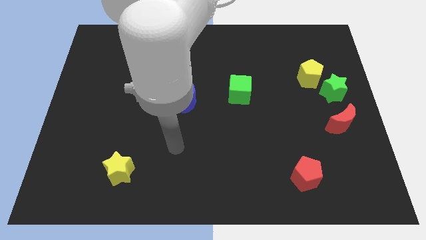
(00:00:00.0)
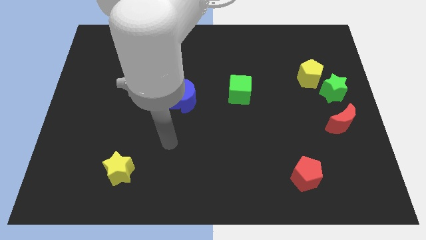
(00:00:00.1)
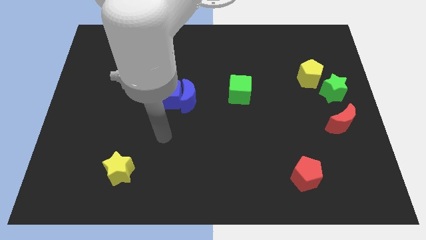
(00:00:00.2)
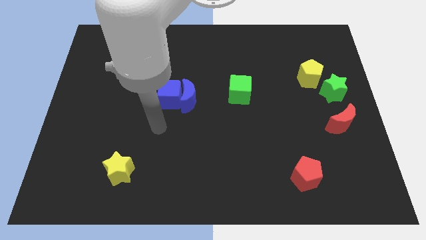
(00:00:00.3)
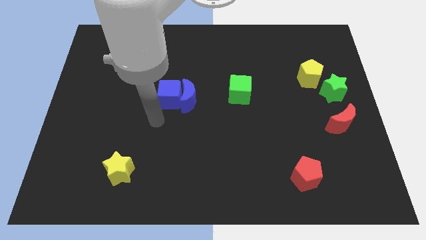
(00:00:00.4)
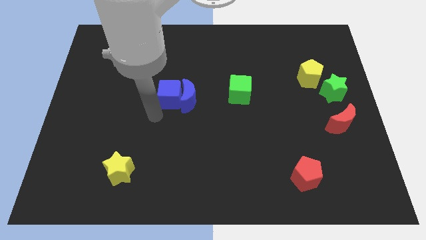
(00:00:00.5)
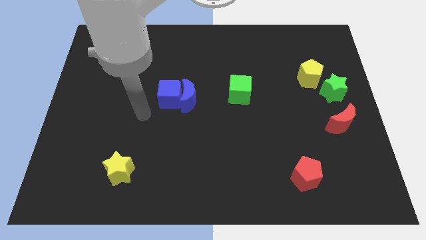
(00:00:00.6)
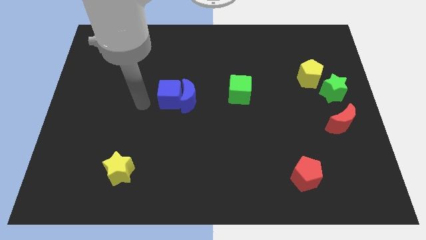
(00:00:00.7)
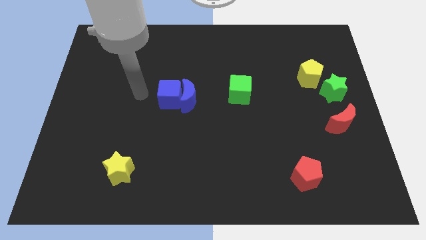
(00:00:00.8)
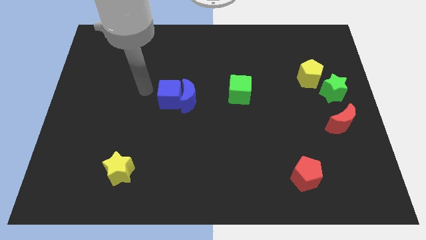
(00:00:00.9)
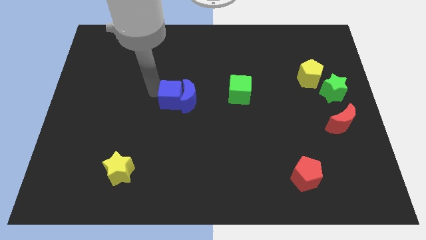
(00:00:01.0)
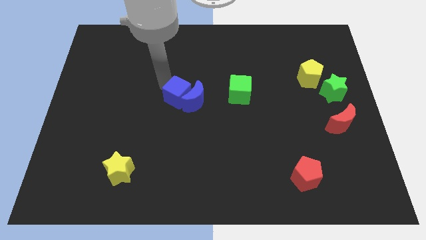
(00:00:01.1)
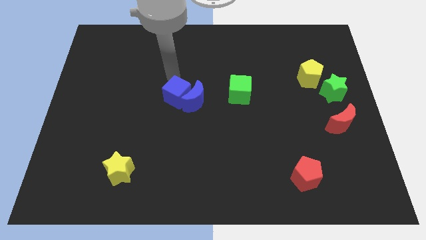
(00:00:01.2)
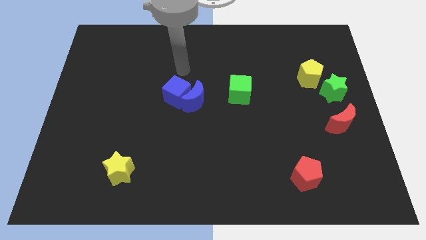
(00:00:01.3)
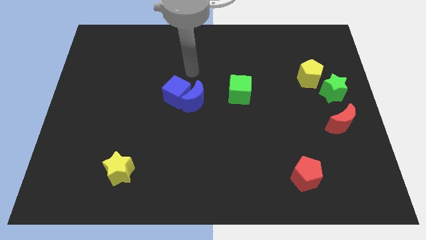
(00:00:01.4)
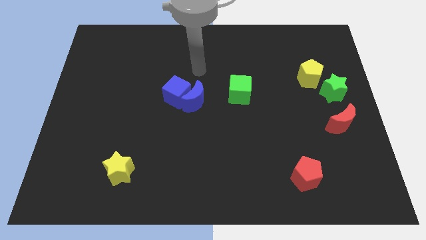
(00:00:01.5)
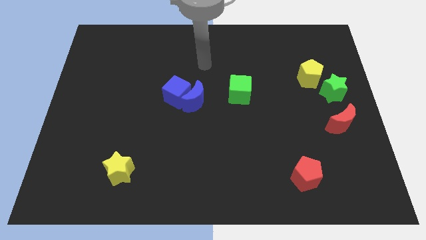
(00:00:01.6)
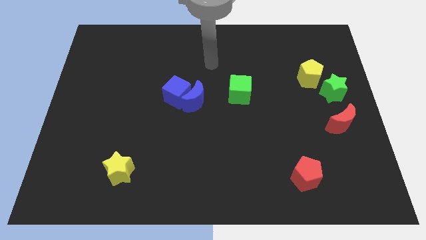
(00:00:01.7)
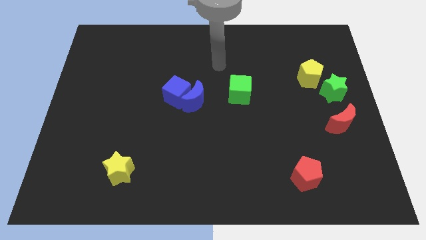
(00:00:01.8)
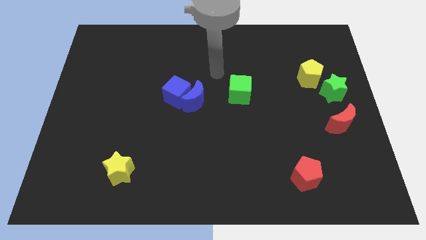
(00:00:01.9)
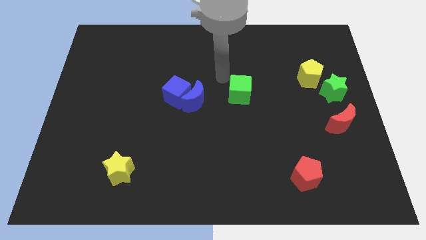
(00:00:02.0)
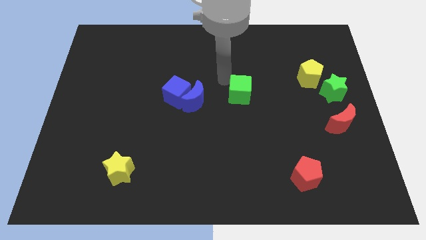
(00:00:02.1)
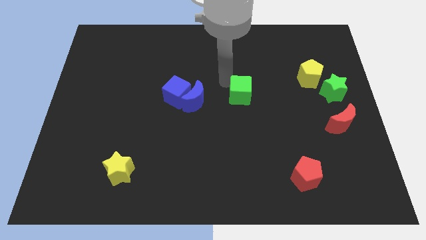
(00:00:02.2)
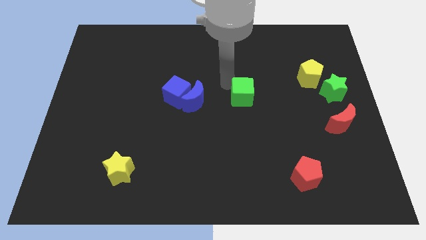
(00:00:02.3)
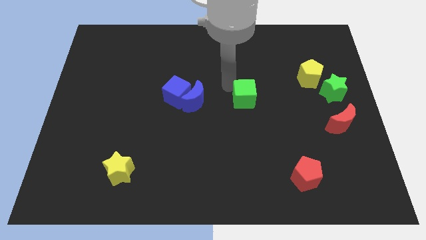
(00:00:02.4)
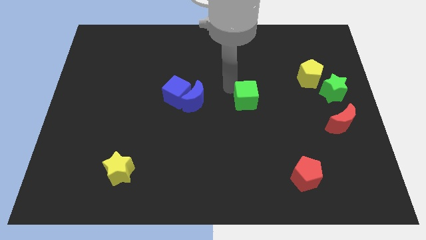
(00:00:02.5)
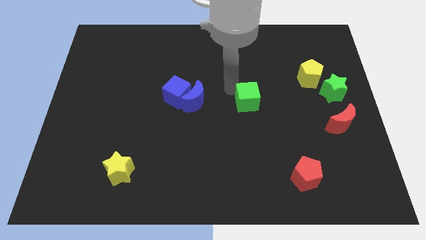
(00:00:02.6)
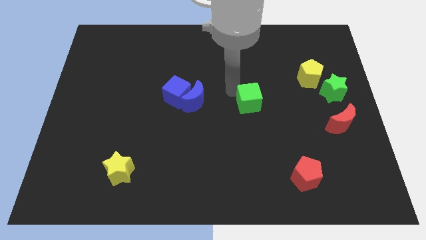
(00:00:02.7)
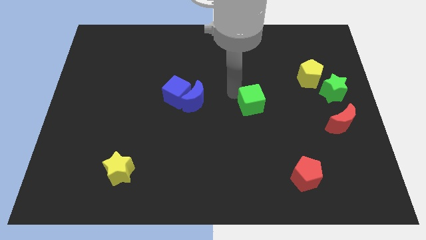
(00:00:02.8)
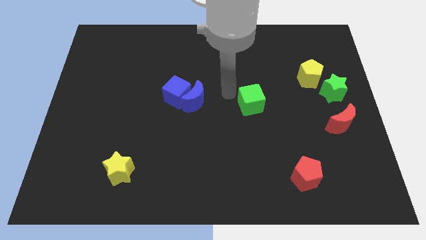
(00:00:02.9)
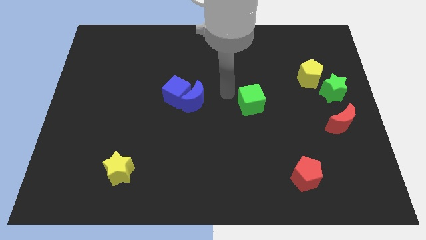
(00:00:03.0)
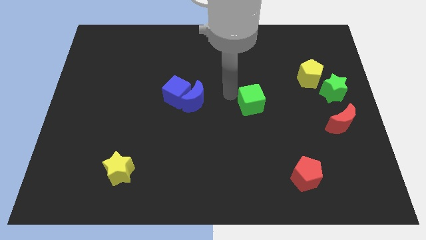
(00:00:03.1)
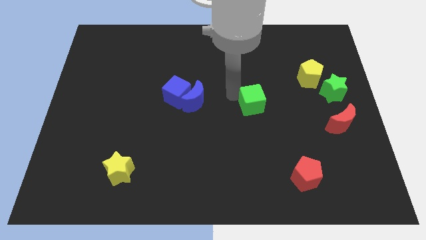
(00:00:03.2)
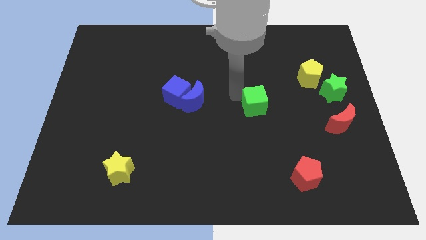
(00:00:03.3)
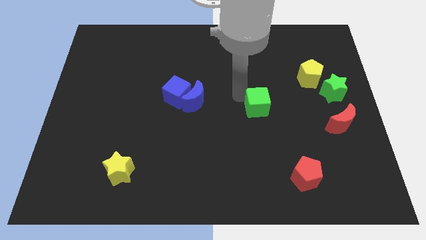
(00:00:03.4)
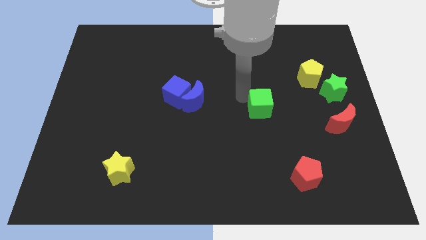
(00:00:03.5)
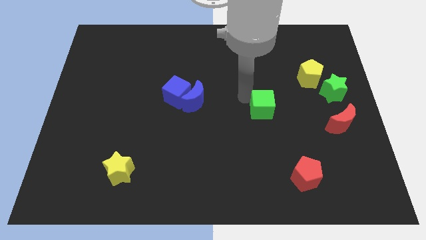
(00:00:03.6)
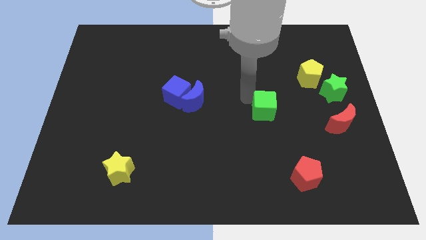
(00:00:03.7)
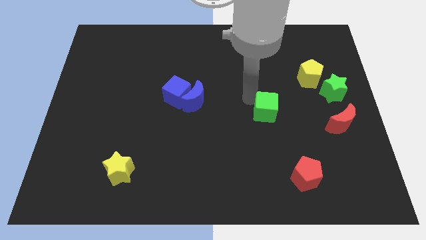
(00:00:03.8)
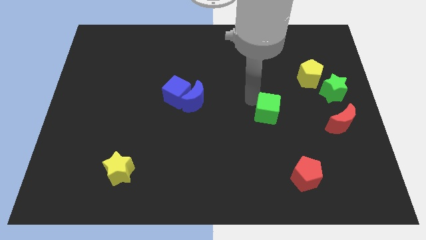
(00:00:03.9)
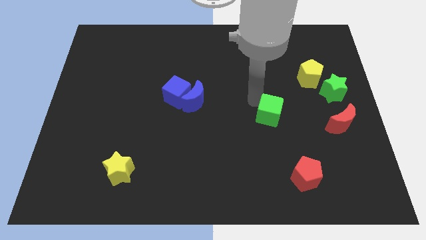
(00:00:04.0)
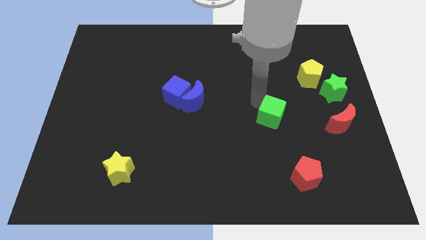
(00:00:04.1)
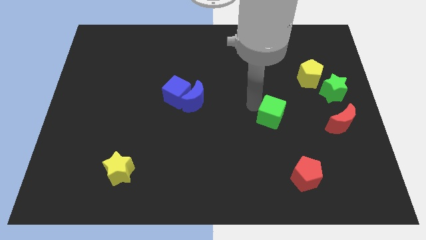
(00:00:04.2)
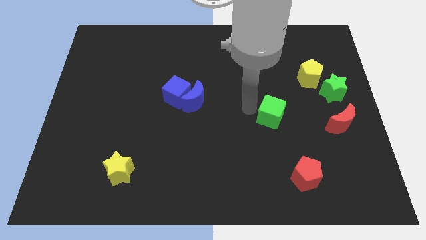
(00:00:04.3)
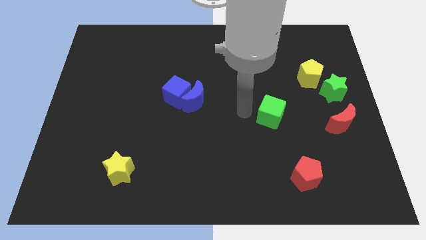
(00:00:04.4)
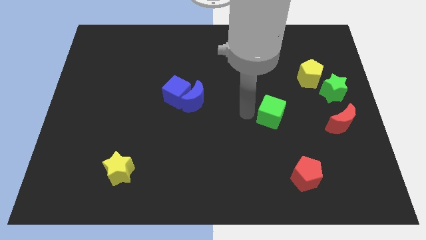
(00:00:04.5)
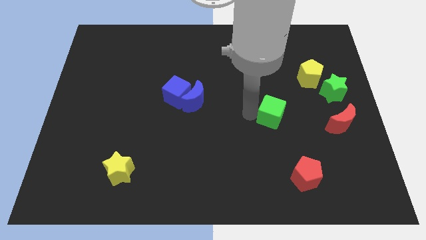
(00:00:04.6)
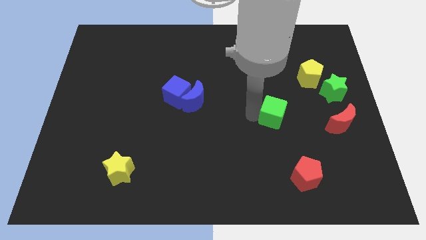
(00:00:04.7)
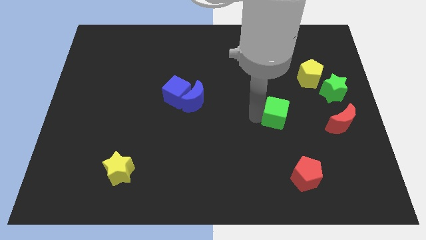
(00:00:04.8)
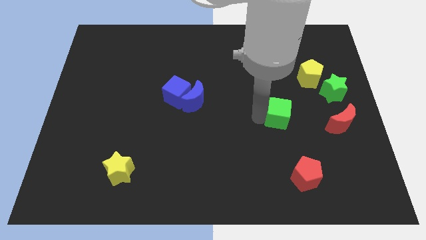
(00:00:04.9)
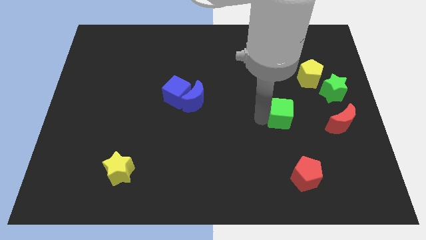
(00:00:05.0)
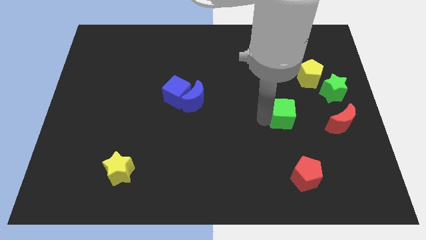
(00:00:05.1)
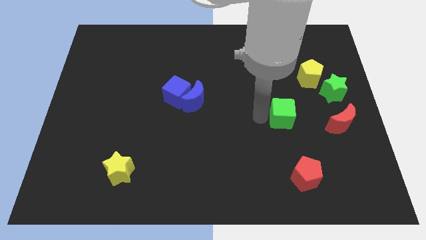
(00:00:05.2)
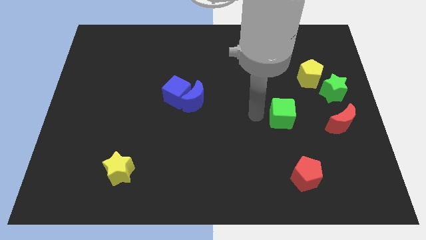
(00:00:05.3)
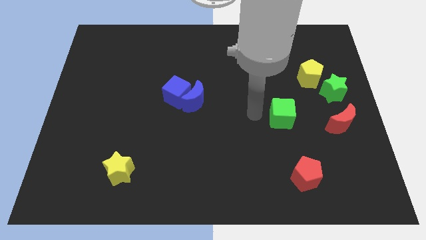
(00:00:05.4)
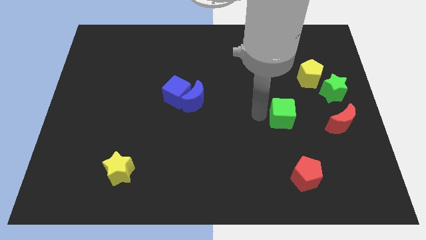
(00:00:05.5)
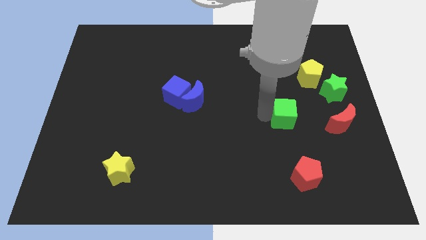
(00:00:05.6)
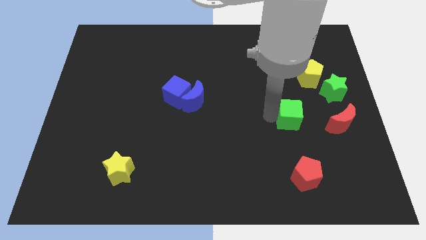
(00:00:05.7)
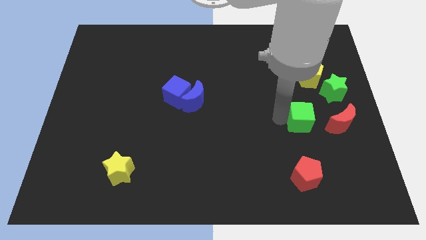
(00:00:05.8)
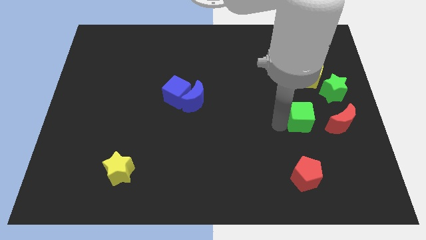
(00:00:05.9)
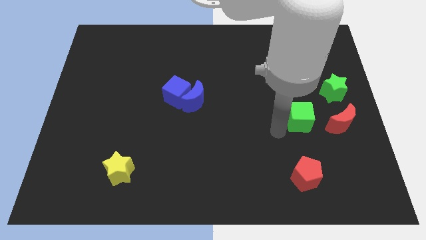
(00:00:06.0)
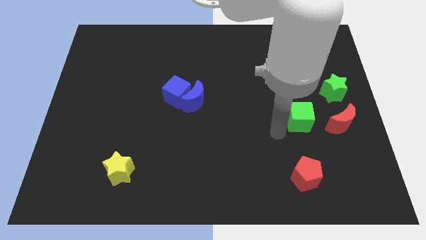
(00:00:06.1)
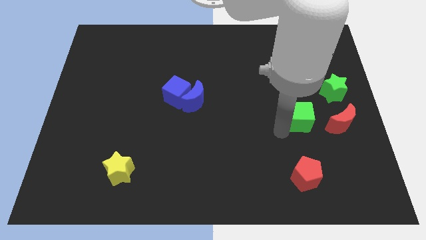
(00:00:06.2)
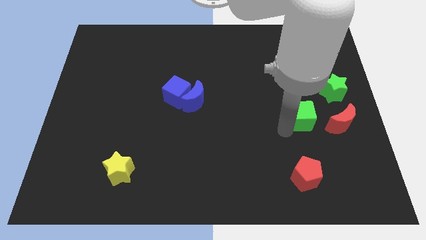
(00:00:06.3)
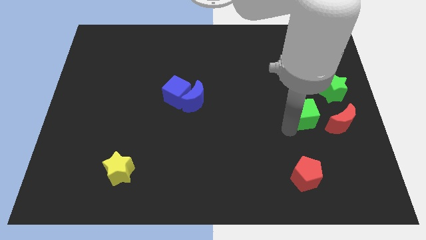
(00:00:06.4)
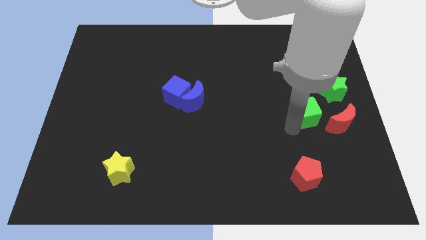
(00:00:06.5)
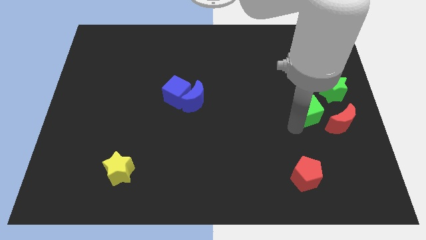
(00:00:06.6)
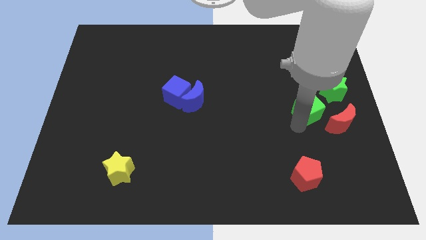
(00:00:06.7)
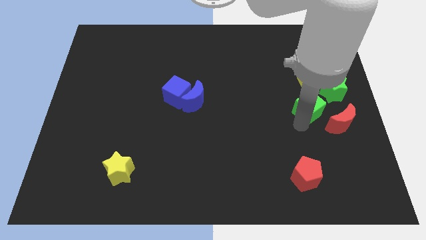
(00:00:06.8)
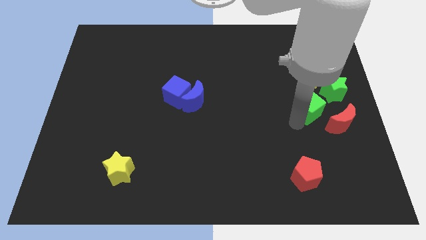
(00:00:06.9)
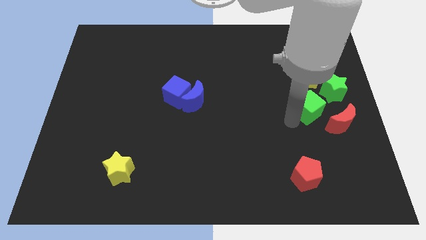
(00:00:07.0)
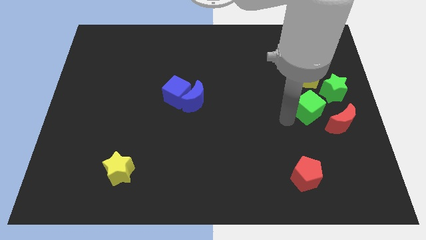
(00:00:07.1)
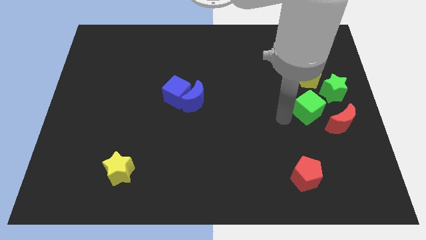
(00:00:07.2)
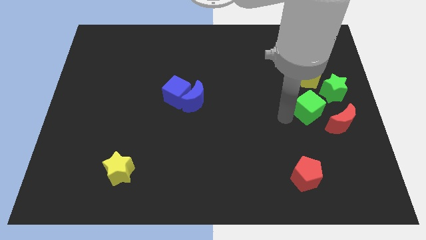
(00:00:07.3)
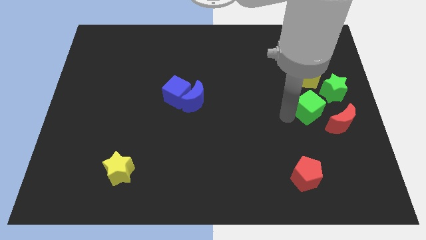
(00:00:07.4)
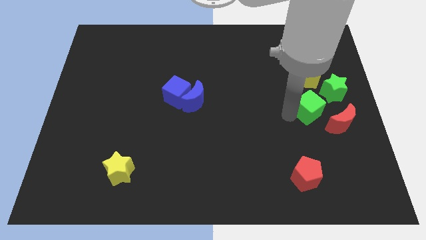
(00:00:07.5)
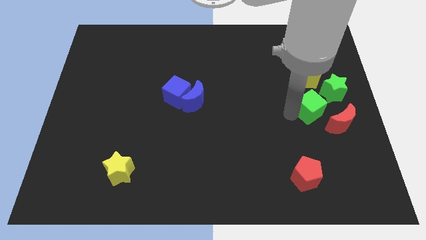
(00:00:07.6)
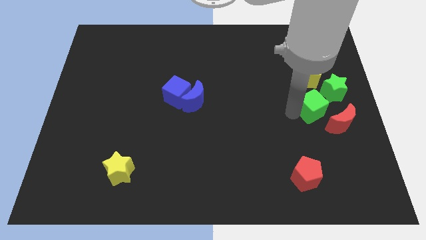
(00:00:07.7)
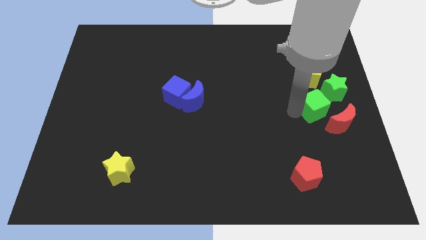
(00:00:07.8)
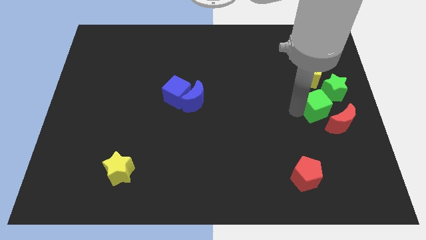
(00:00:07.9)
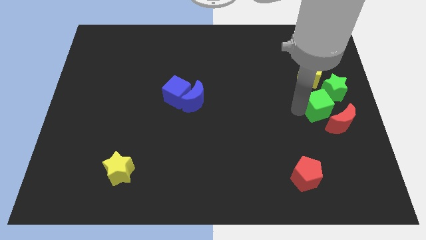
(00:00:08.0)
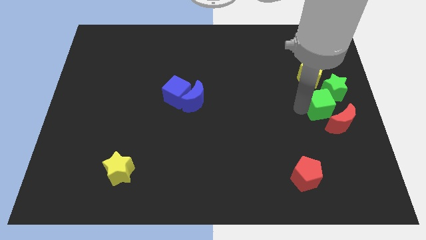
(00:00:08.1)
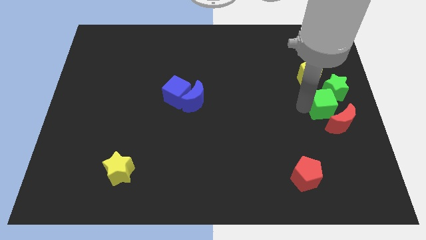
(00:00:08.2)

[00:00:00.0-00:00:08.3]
put the green cube to the right side of the board
